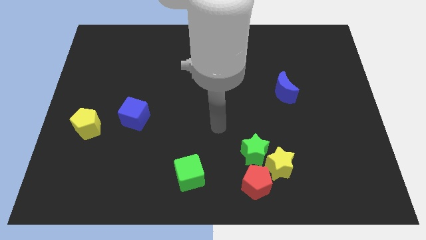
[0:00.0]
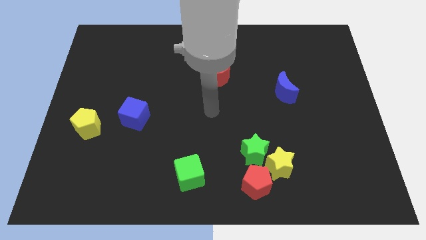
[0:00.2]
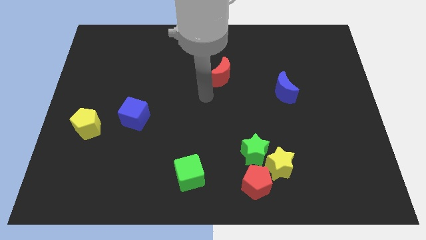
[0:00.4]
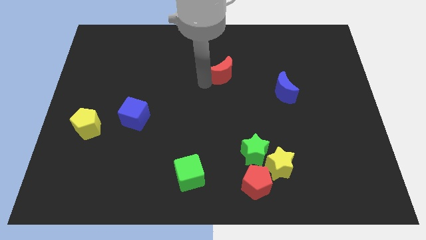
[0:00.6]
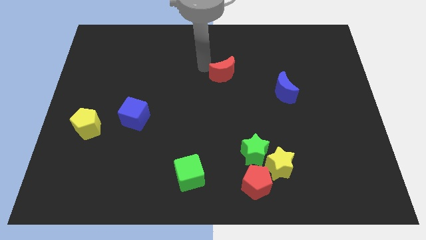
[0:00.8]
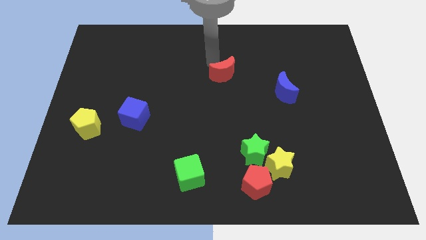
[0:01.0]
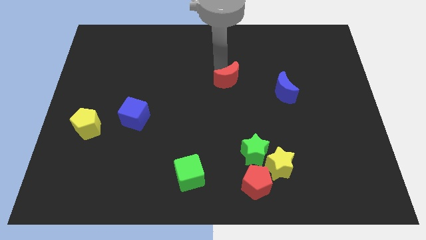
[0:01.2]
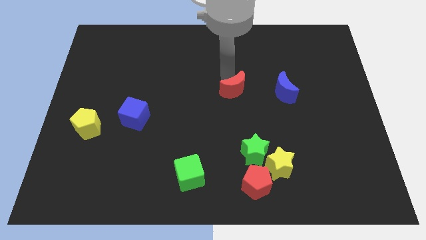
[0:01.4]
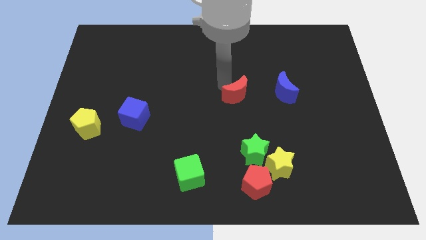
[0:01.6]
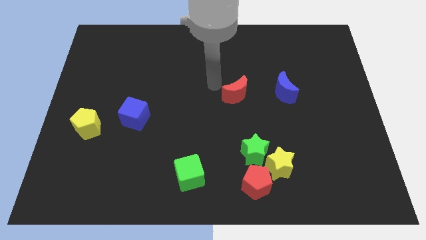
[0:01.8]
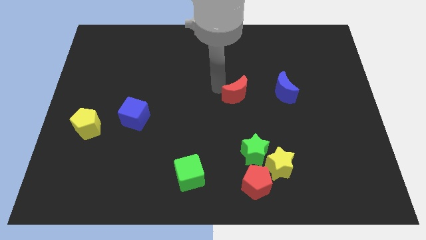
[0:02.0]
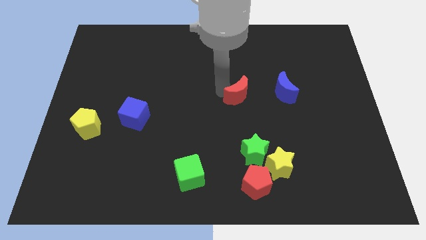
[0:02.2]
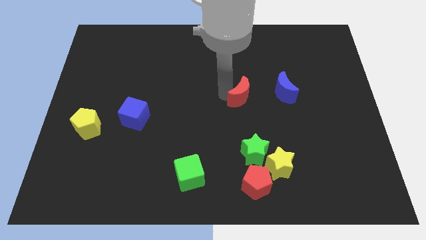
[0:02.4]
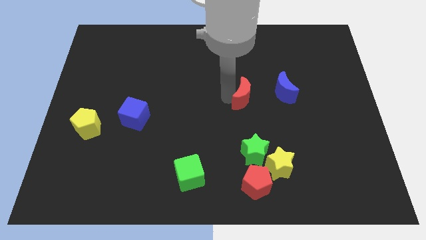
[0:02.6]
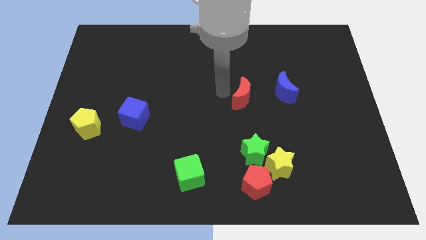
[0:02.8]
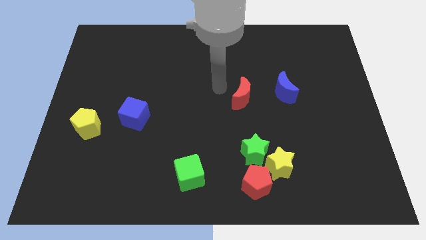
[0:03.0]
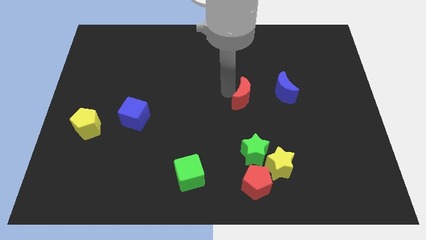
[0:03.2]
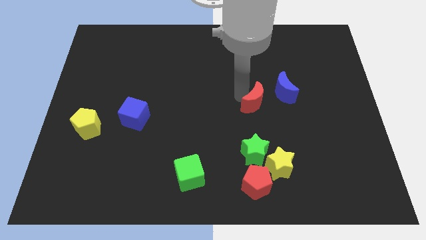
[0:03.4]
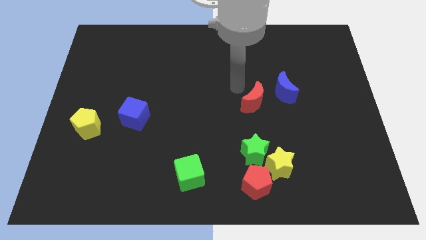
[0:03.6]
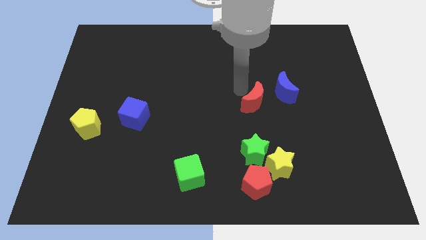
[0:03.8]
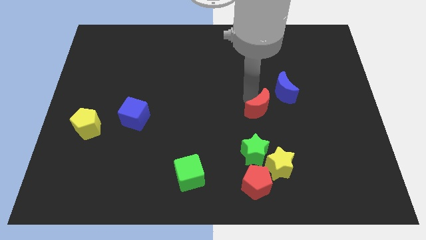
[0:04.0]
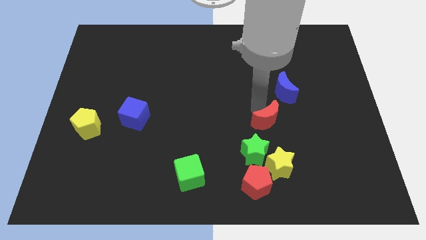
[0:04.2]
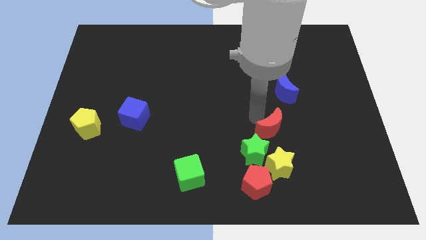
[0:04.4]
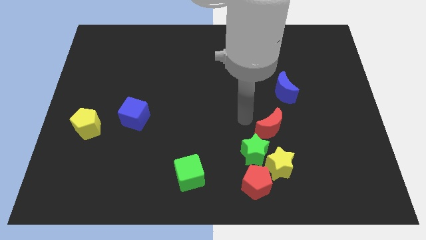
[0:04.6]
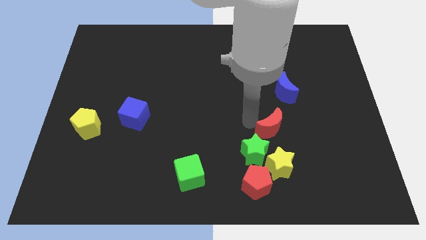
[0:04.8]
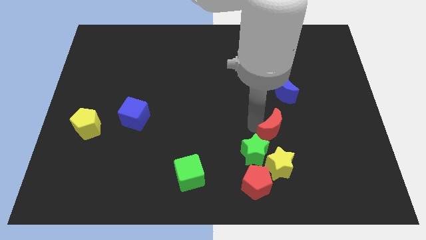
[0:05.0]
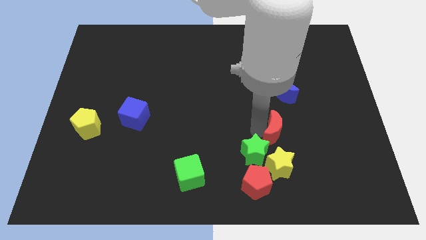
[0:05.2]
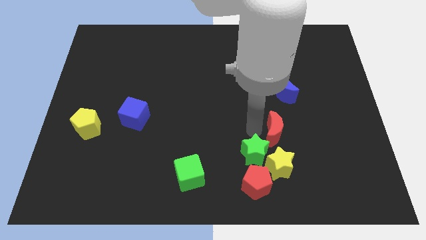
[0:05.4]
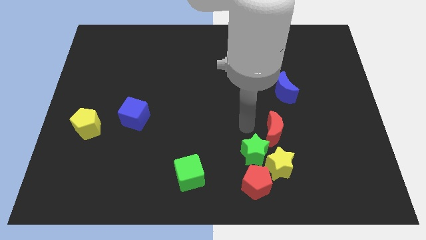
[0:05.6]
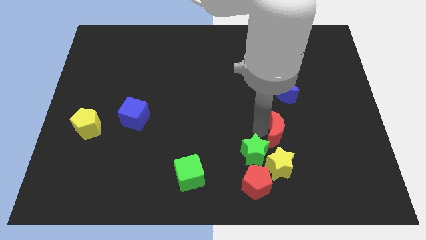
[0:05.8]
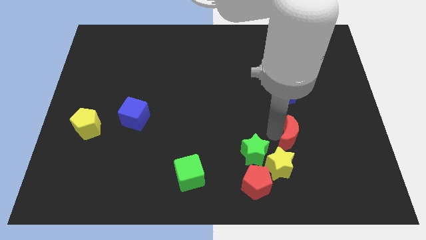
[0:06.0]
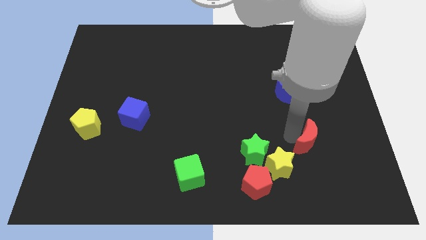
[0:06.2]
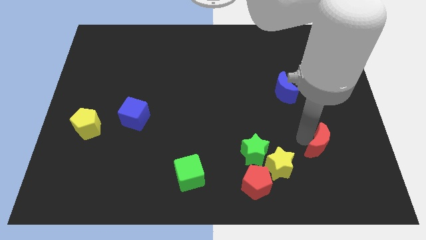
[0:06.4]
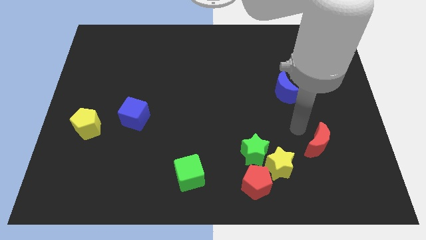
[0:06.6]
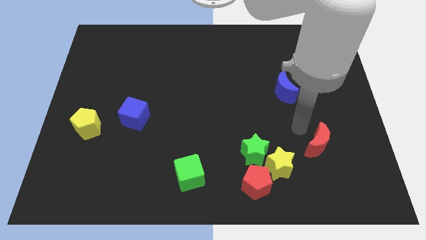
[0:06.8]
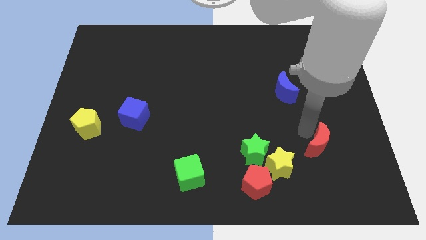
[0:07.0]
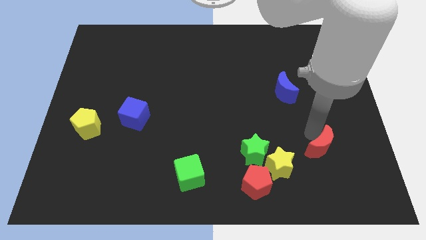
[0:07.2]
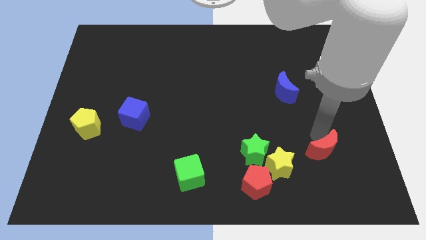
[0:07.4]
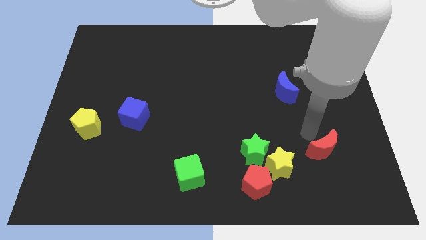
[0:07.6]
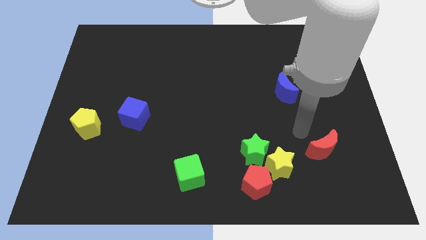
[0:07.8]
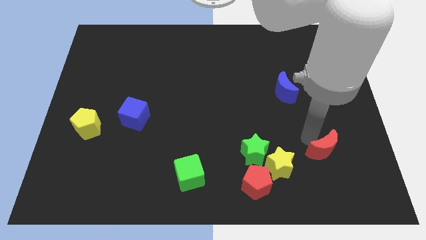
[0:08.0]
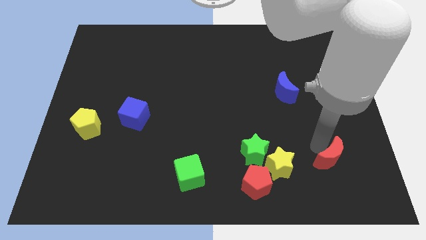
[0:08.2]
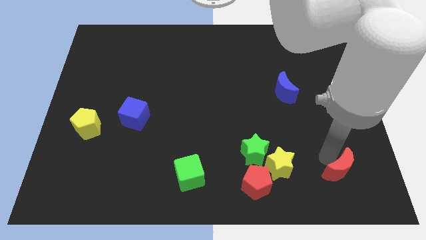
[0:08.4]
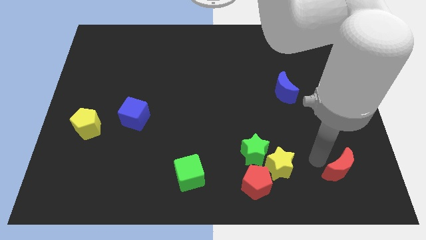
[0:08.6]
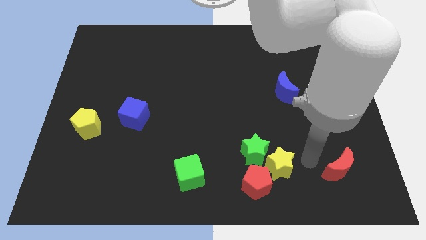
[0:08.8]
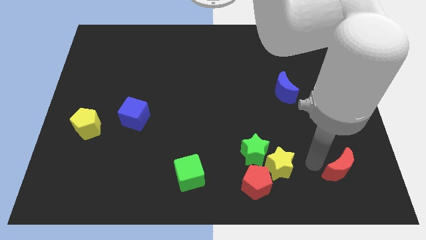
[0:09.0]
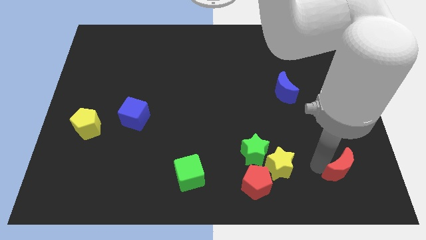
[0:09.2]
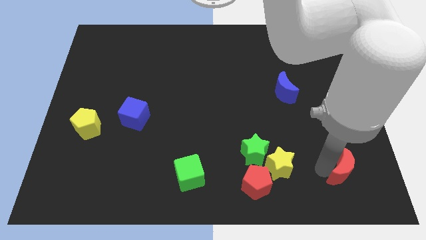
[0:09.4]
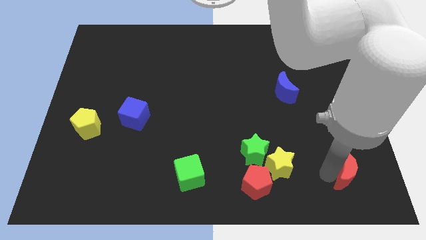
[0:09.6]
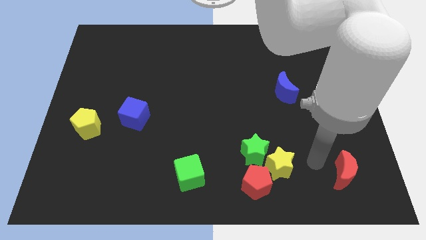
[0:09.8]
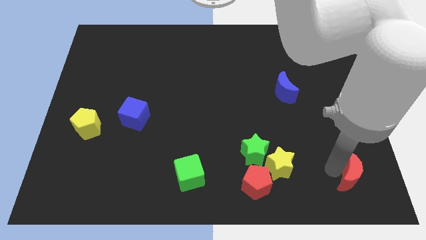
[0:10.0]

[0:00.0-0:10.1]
push the red moon to the bottom right of the board

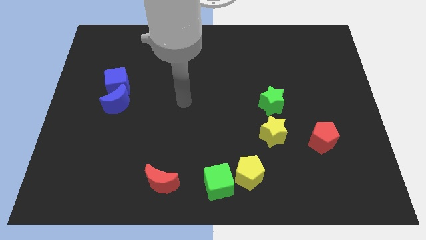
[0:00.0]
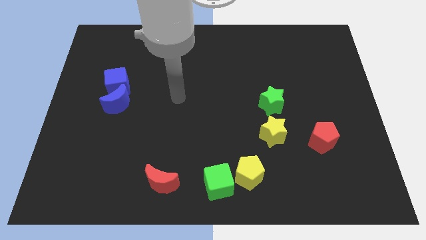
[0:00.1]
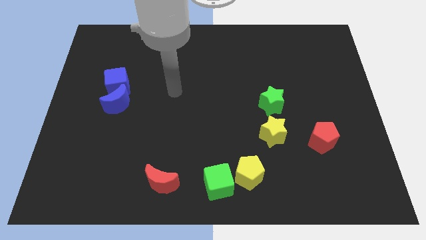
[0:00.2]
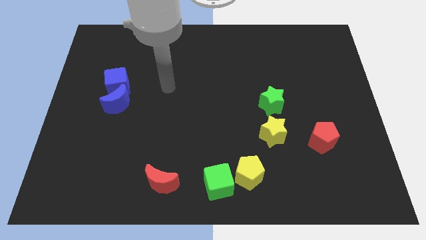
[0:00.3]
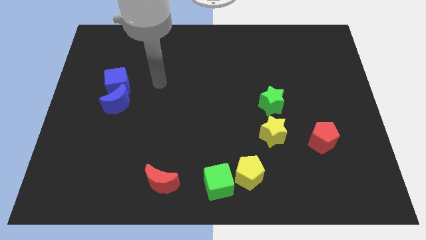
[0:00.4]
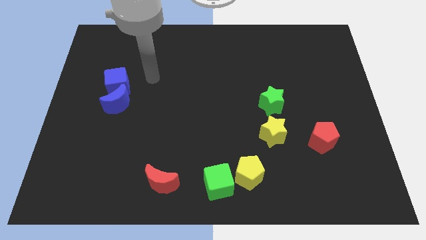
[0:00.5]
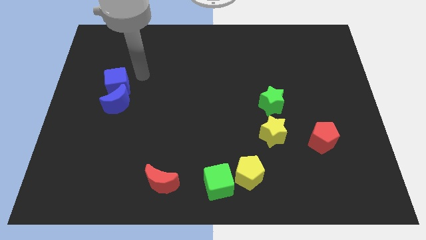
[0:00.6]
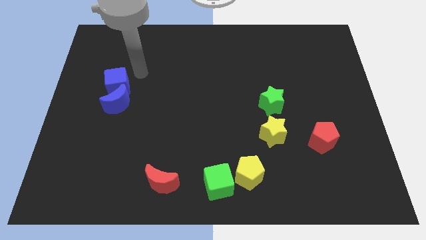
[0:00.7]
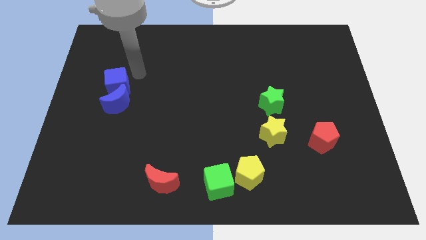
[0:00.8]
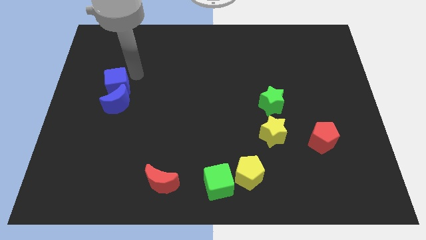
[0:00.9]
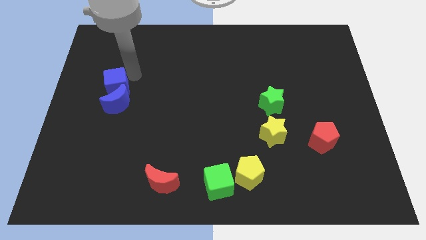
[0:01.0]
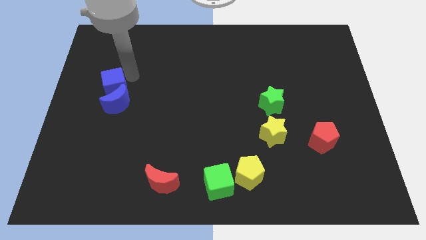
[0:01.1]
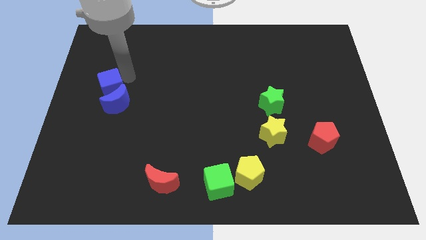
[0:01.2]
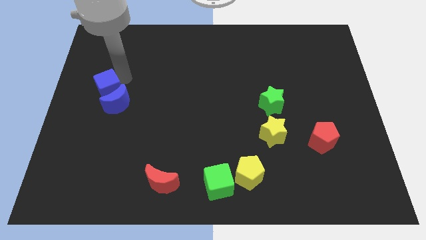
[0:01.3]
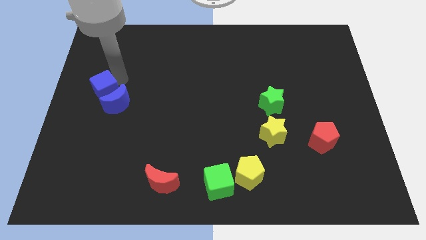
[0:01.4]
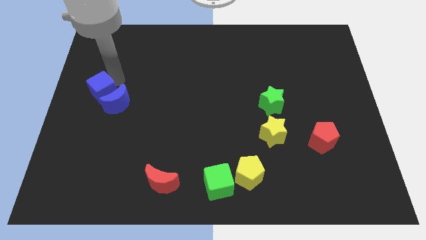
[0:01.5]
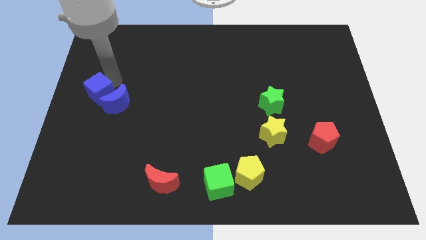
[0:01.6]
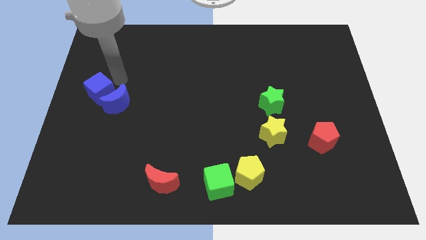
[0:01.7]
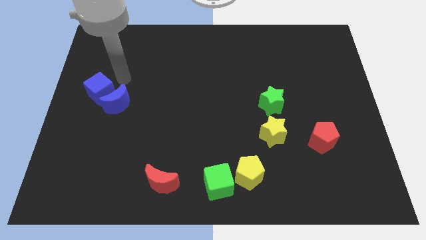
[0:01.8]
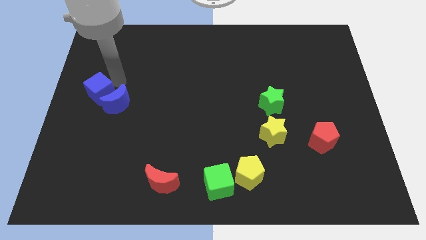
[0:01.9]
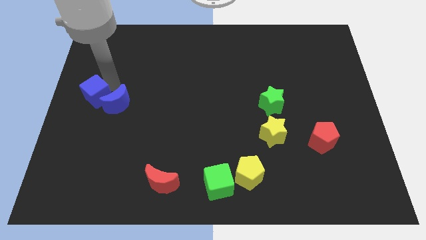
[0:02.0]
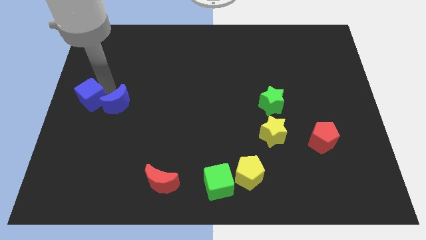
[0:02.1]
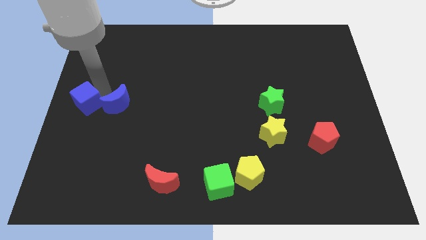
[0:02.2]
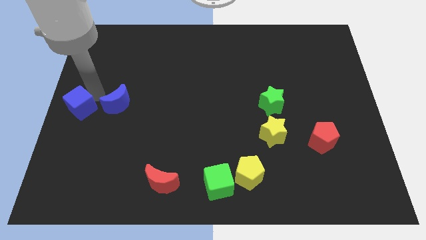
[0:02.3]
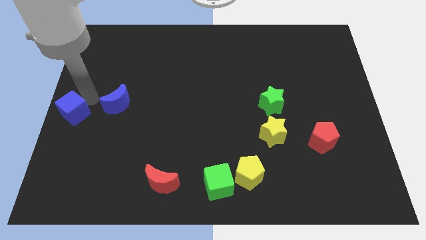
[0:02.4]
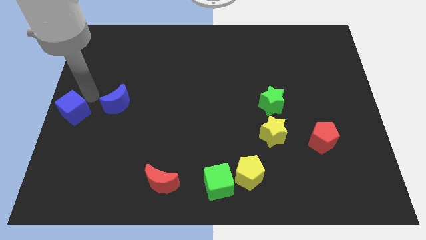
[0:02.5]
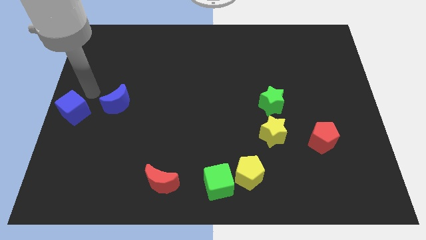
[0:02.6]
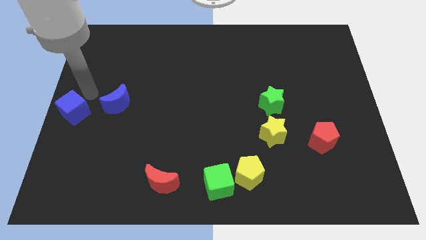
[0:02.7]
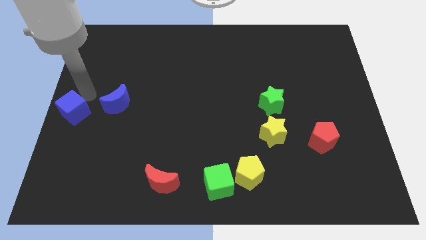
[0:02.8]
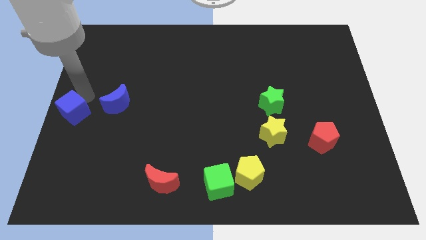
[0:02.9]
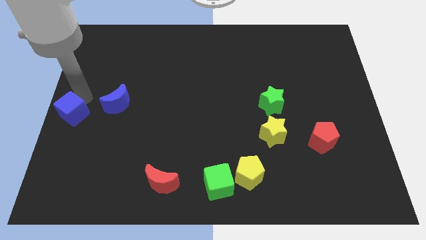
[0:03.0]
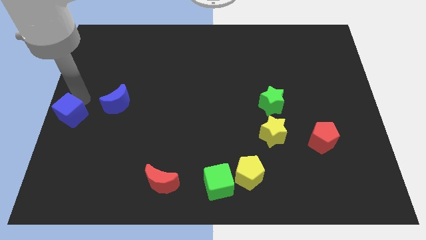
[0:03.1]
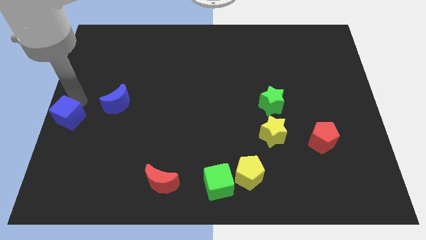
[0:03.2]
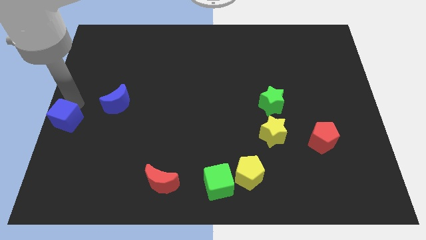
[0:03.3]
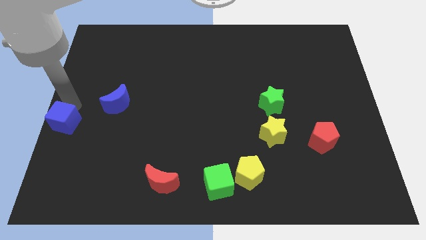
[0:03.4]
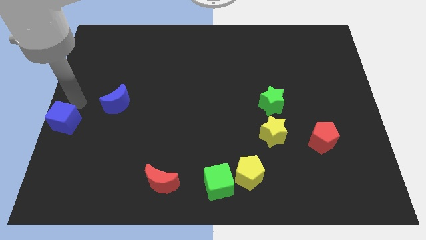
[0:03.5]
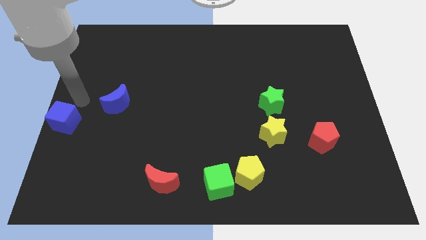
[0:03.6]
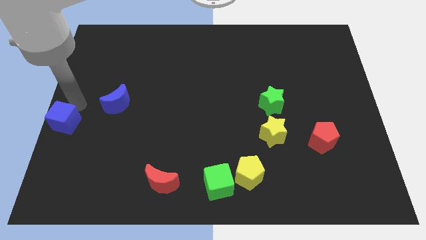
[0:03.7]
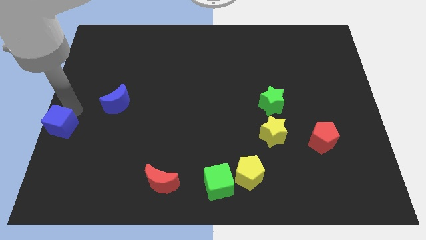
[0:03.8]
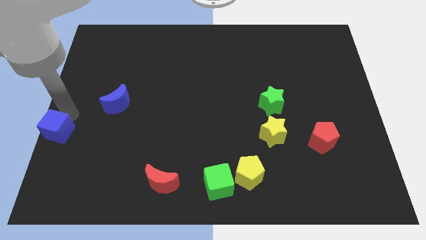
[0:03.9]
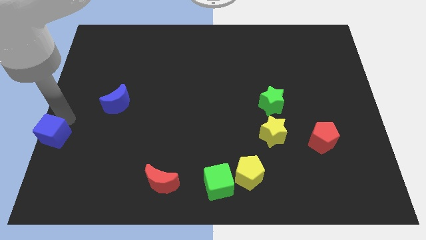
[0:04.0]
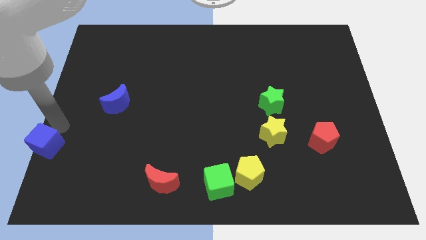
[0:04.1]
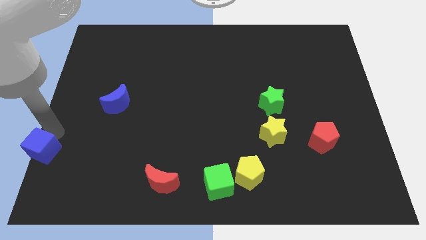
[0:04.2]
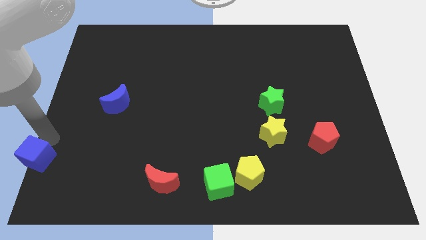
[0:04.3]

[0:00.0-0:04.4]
put the blue cube to the bottom left
